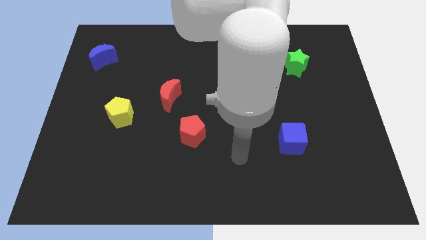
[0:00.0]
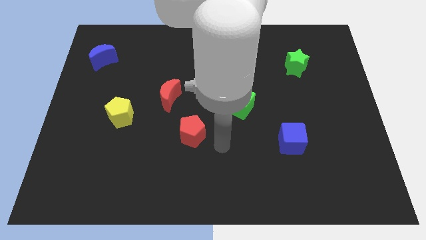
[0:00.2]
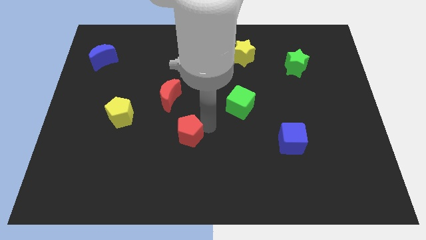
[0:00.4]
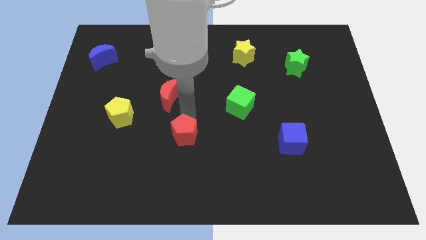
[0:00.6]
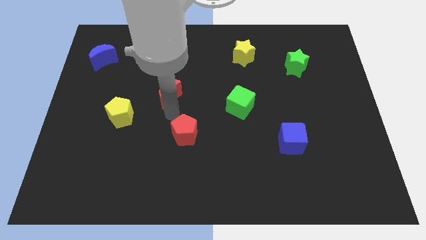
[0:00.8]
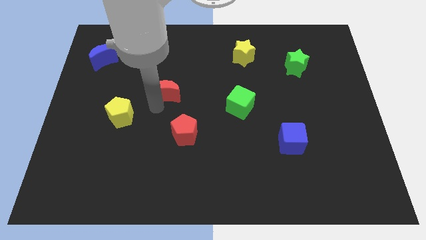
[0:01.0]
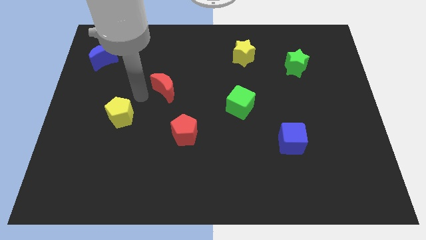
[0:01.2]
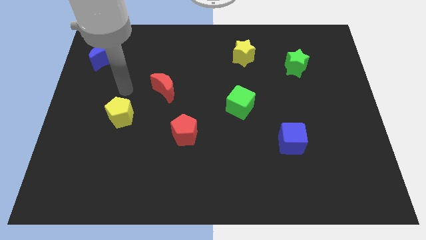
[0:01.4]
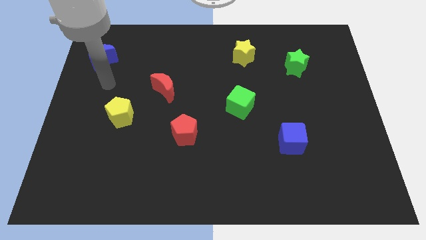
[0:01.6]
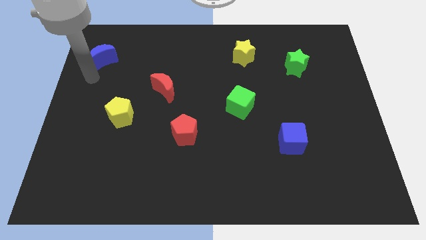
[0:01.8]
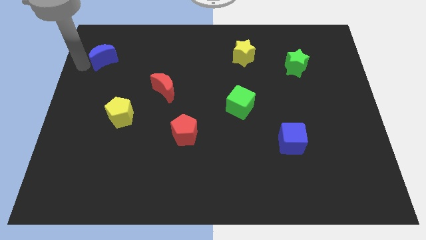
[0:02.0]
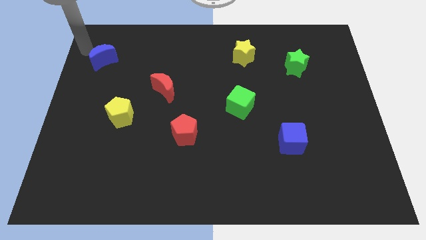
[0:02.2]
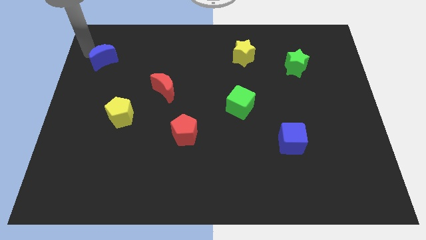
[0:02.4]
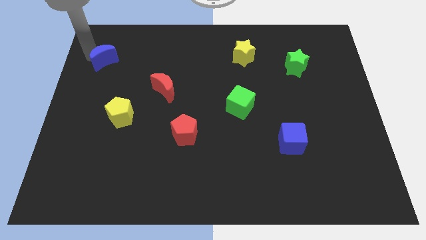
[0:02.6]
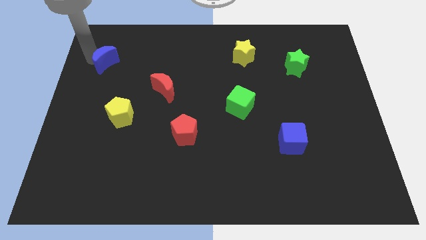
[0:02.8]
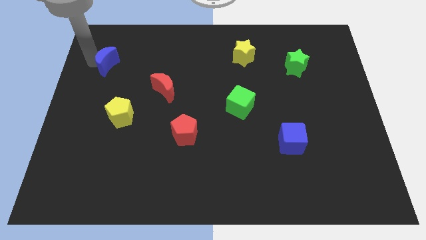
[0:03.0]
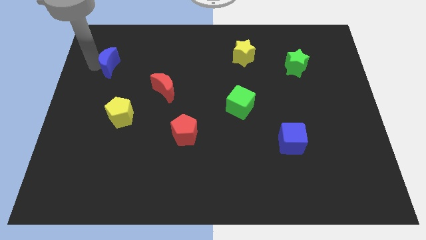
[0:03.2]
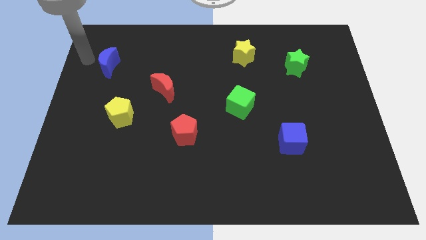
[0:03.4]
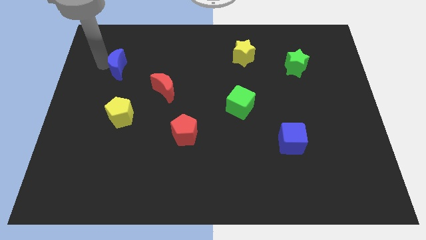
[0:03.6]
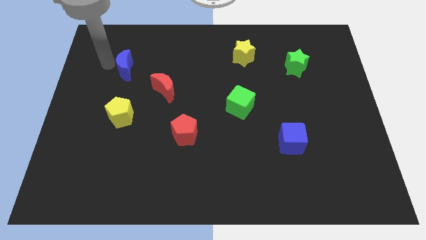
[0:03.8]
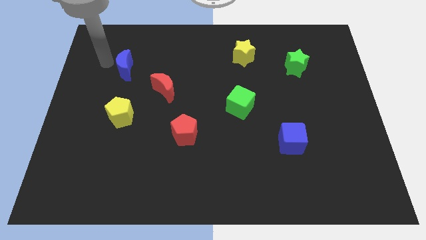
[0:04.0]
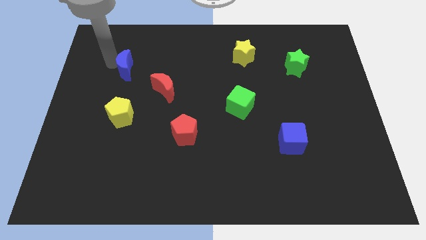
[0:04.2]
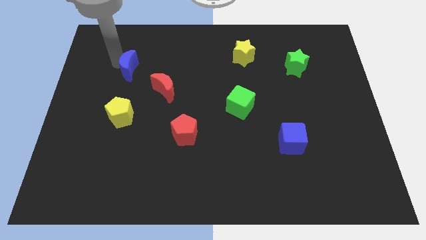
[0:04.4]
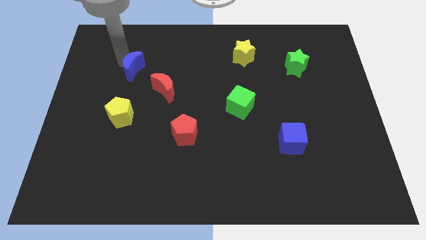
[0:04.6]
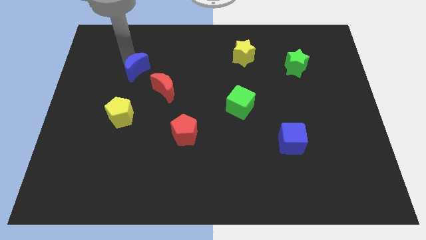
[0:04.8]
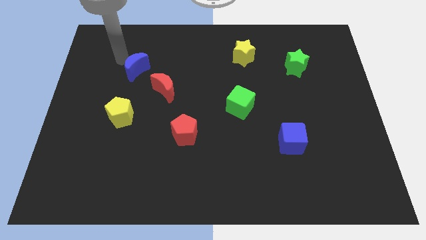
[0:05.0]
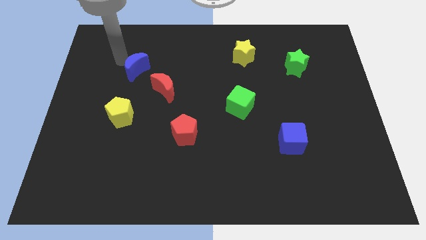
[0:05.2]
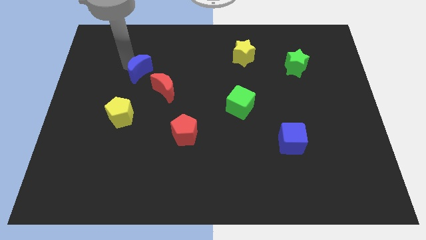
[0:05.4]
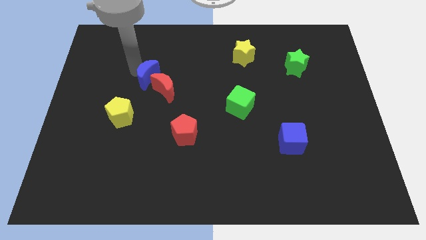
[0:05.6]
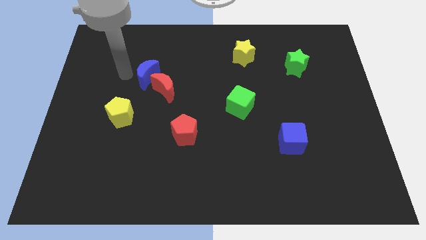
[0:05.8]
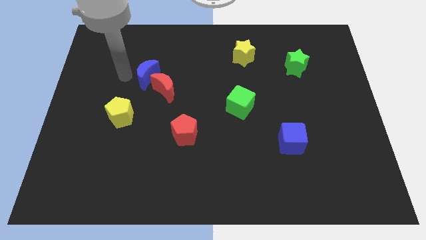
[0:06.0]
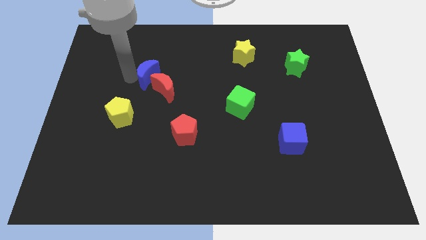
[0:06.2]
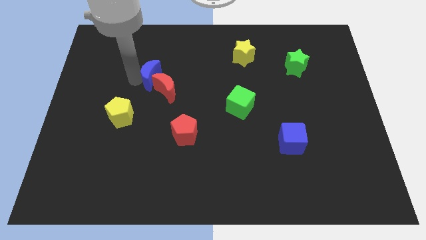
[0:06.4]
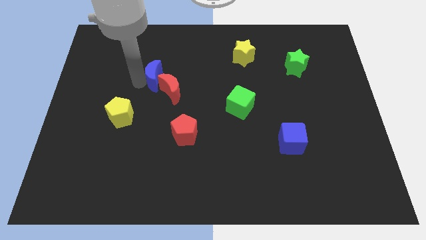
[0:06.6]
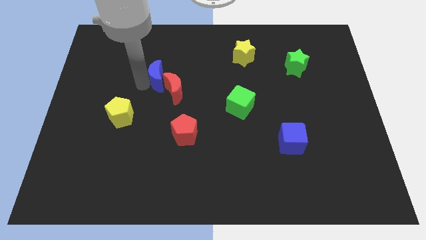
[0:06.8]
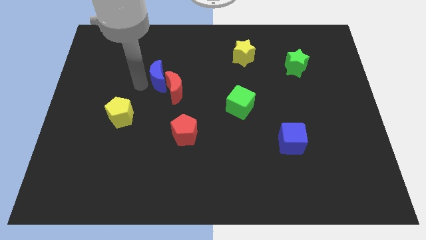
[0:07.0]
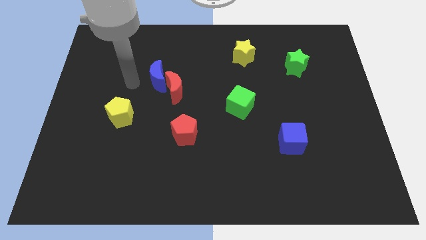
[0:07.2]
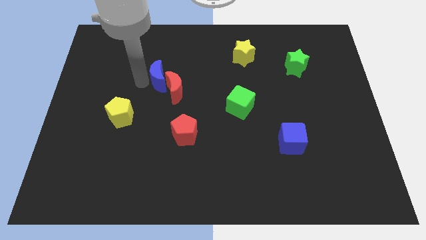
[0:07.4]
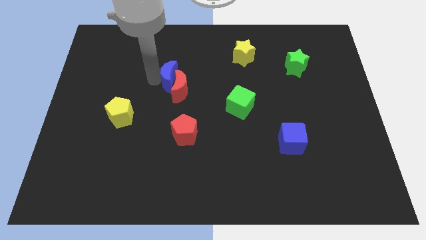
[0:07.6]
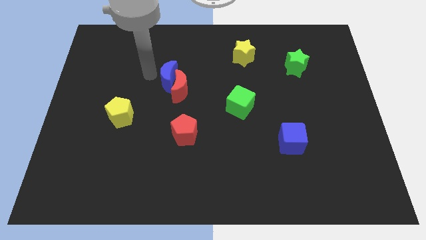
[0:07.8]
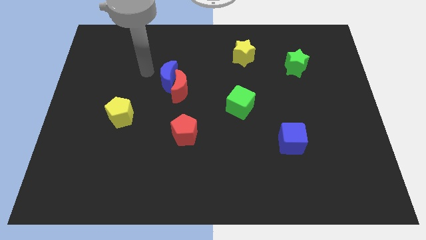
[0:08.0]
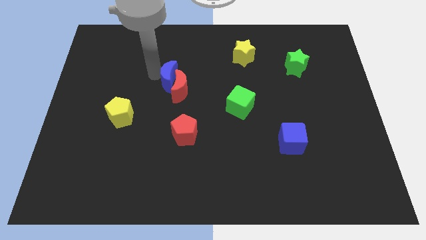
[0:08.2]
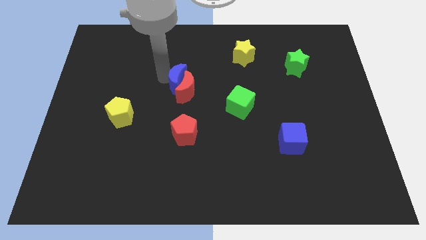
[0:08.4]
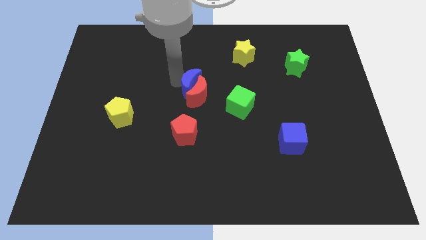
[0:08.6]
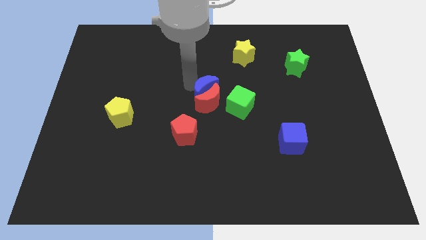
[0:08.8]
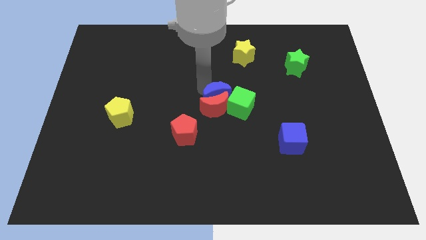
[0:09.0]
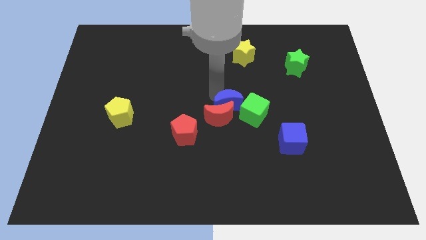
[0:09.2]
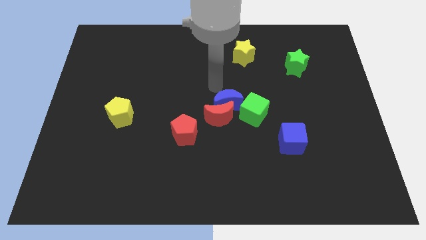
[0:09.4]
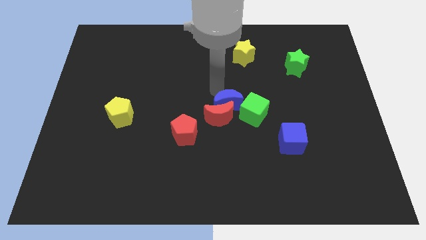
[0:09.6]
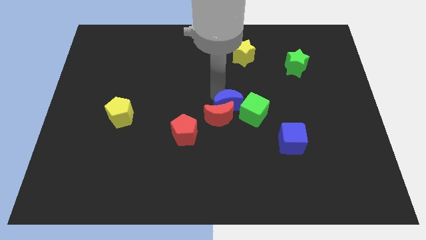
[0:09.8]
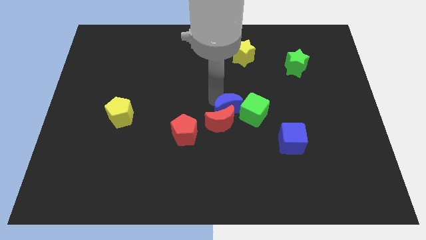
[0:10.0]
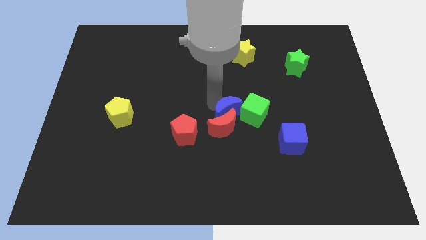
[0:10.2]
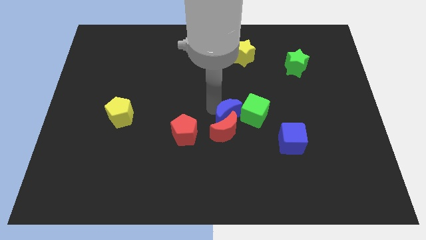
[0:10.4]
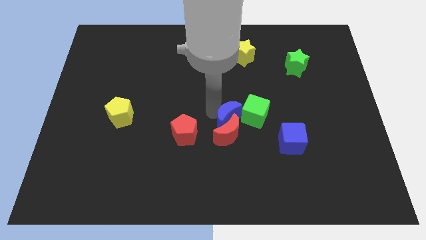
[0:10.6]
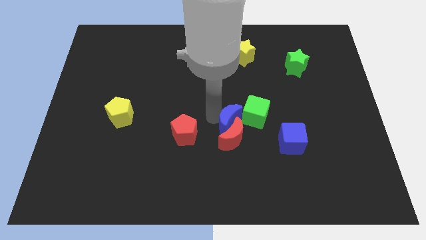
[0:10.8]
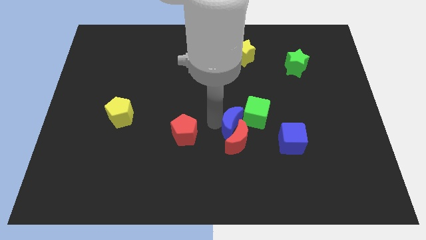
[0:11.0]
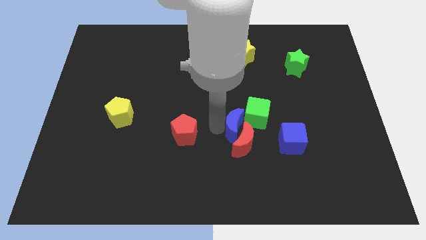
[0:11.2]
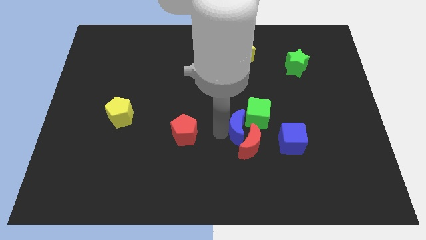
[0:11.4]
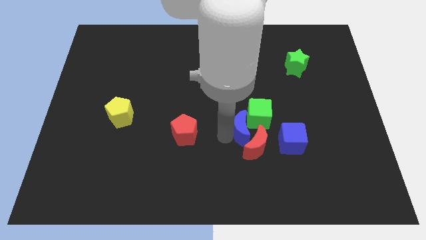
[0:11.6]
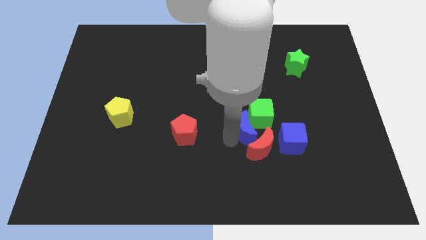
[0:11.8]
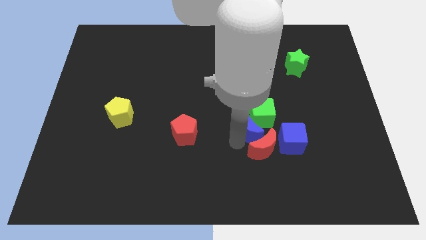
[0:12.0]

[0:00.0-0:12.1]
put the blue moon to the top left of the blue cube

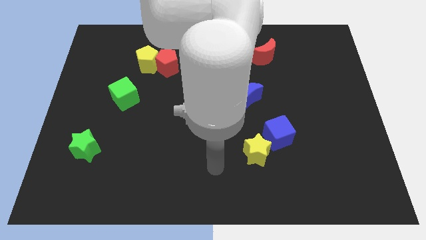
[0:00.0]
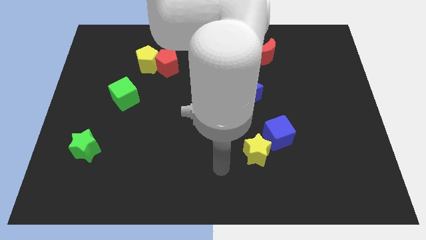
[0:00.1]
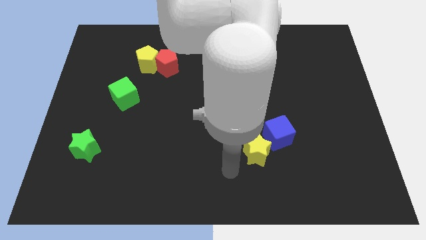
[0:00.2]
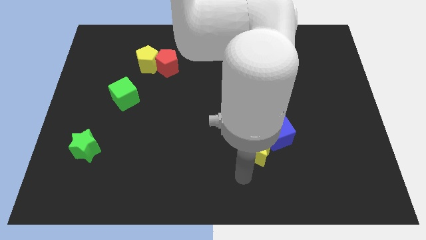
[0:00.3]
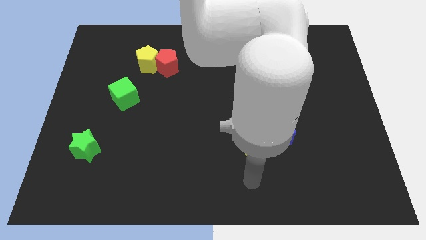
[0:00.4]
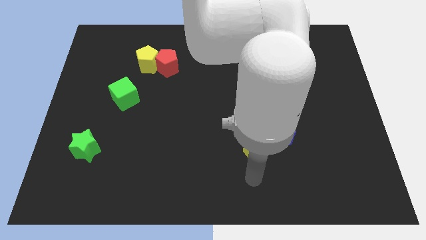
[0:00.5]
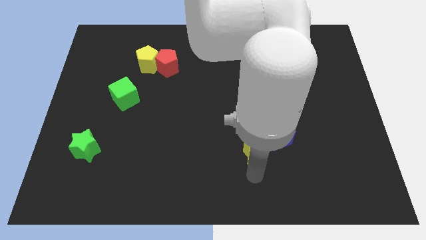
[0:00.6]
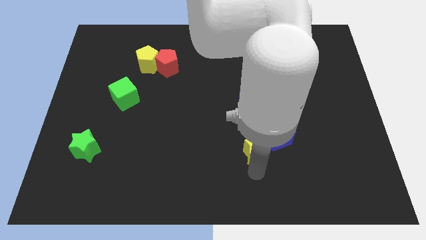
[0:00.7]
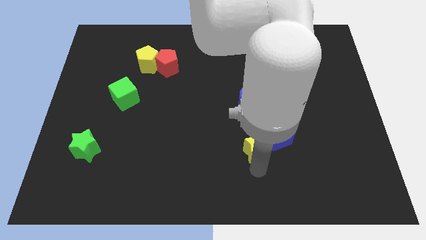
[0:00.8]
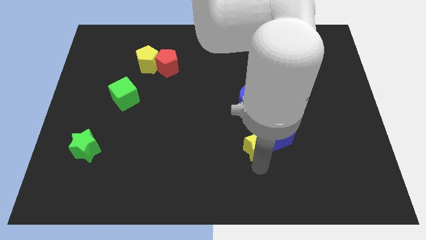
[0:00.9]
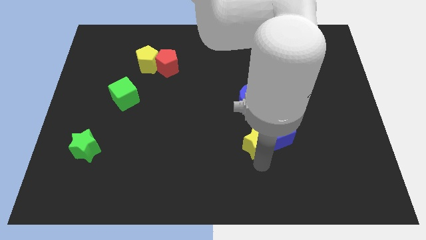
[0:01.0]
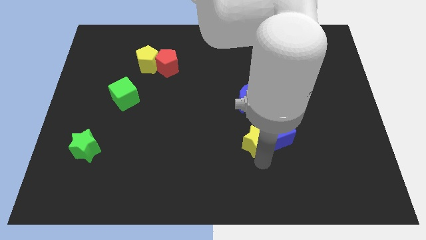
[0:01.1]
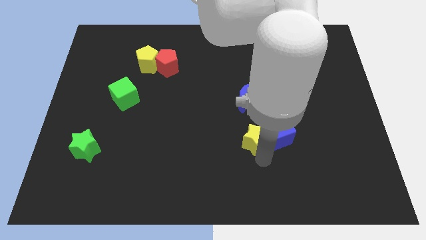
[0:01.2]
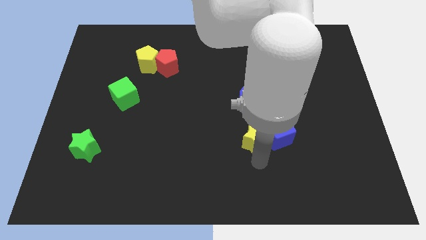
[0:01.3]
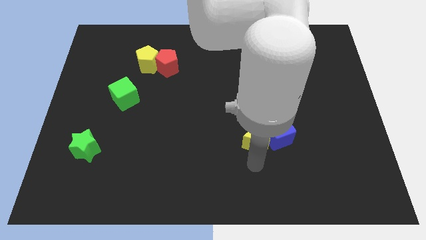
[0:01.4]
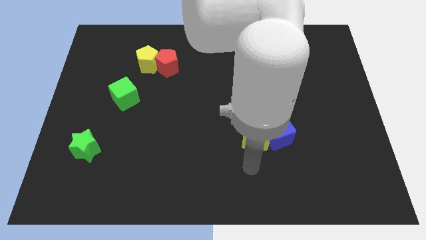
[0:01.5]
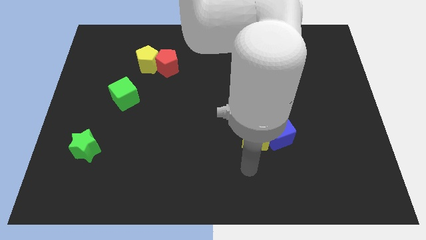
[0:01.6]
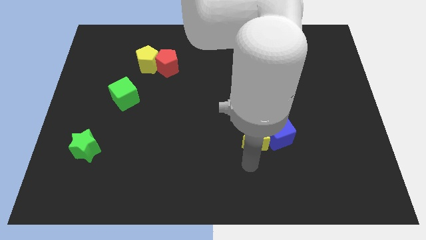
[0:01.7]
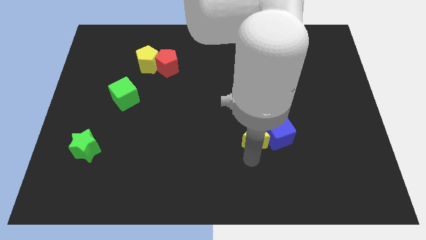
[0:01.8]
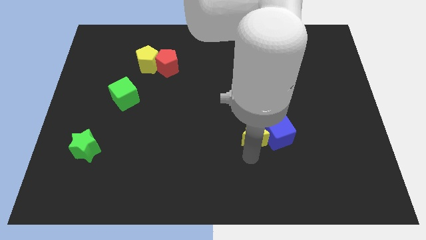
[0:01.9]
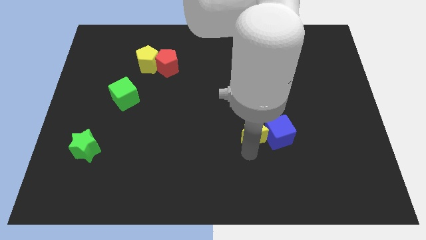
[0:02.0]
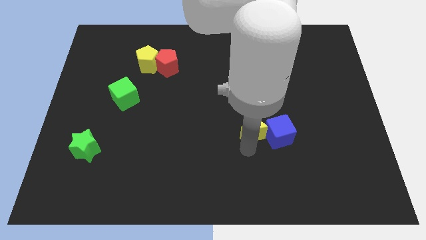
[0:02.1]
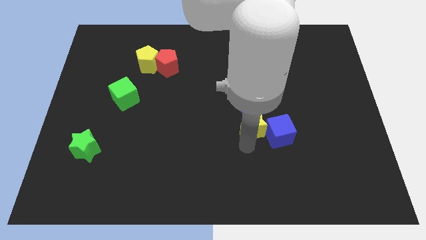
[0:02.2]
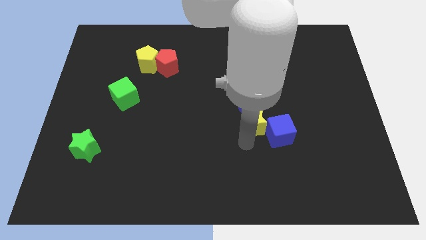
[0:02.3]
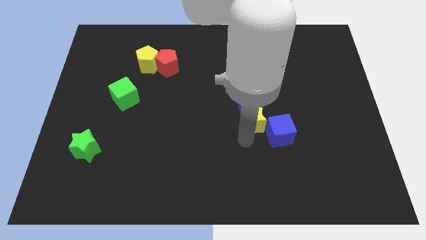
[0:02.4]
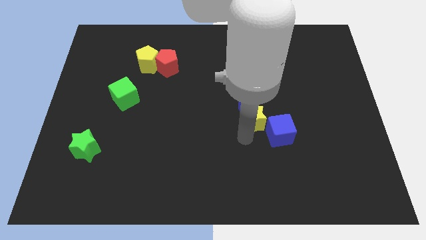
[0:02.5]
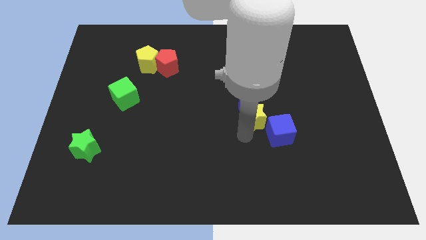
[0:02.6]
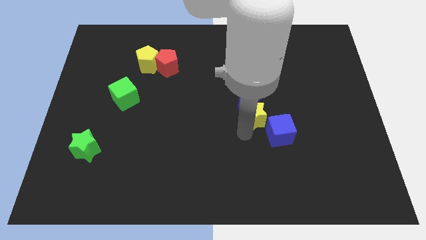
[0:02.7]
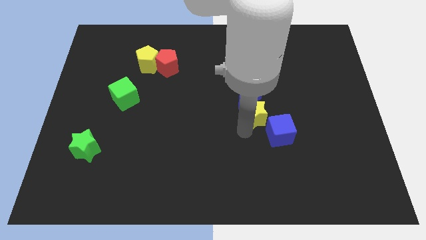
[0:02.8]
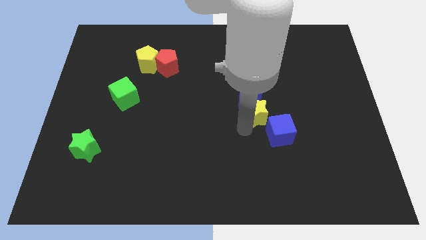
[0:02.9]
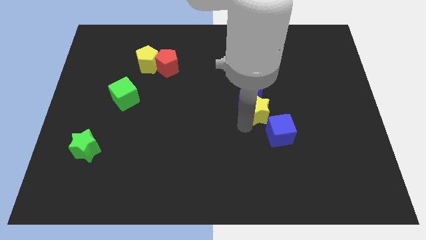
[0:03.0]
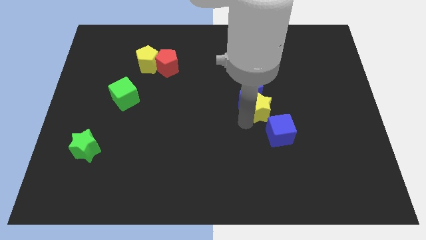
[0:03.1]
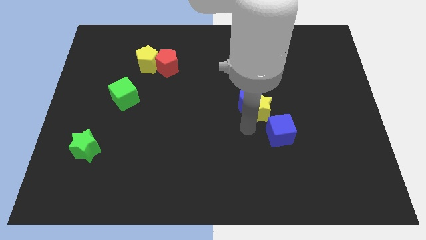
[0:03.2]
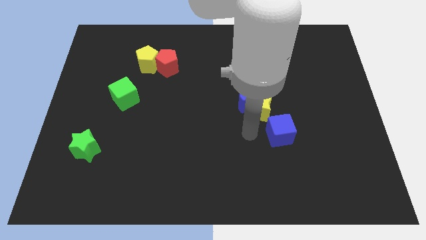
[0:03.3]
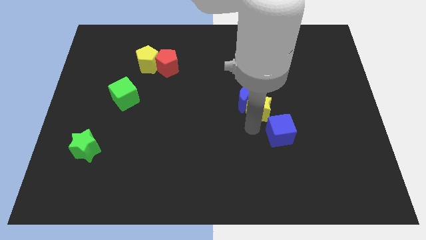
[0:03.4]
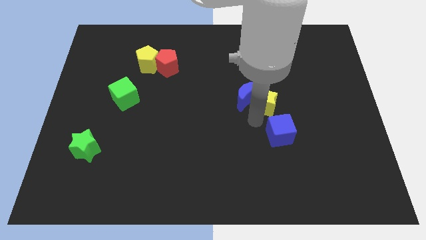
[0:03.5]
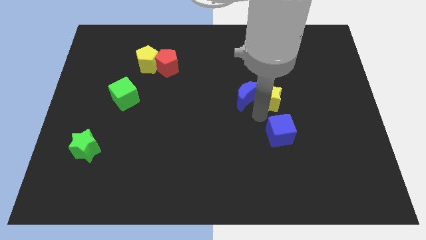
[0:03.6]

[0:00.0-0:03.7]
slide the yellow star below the red moon
